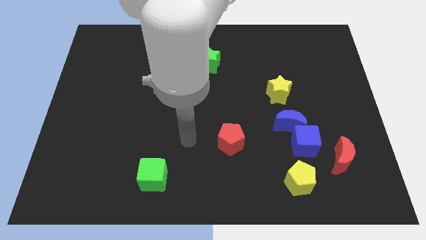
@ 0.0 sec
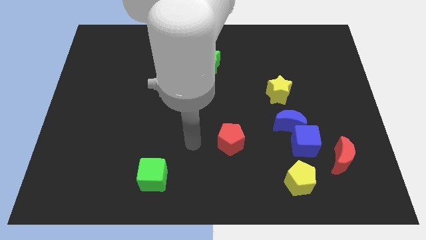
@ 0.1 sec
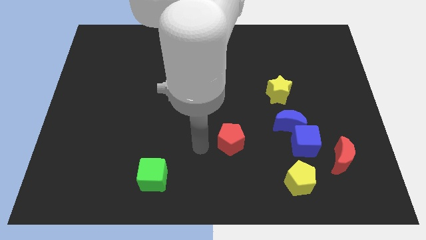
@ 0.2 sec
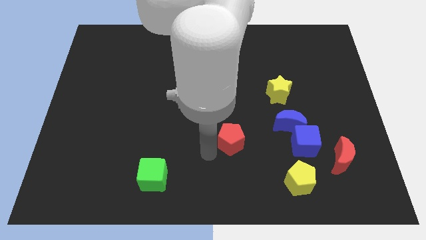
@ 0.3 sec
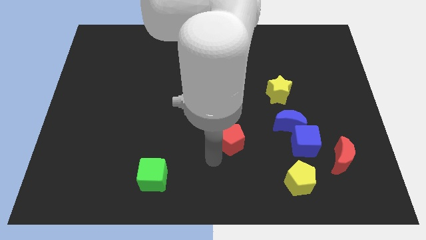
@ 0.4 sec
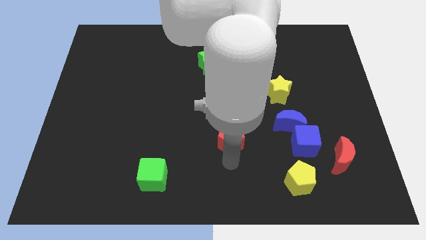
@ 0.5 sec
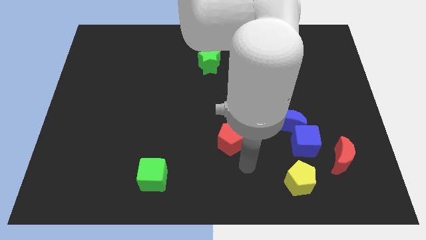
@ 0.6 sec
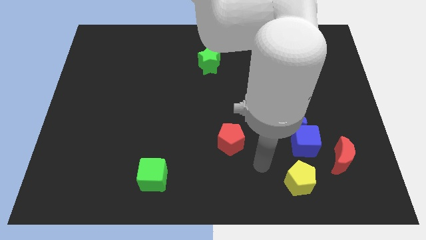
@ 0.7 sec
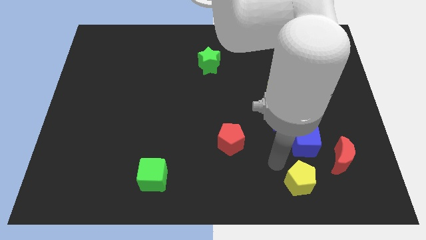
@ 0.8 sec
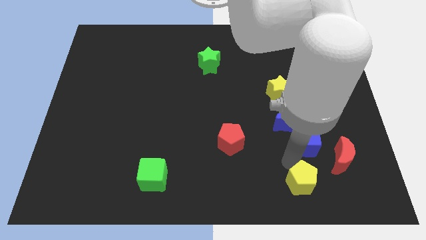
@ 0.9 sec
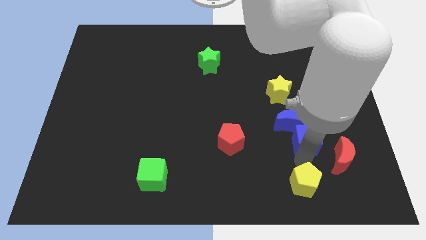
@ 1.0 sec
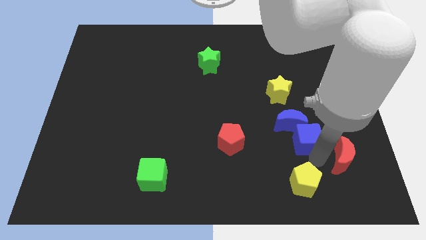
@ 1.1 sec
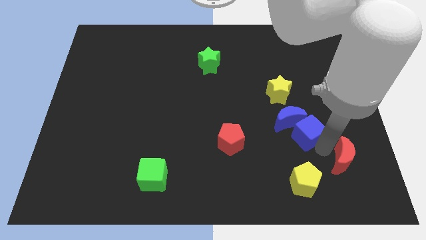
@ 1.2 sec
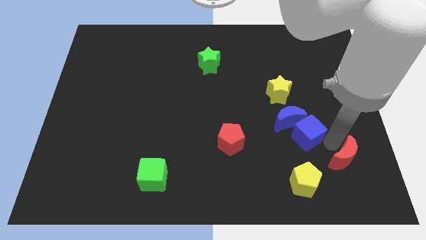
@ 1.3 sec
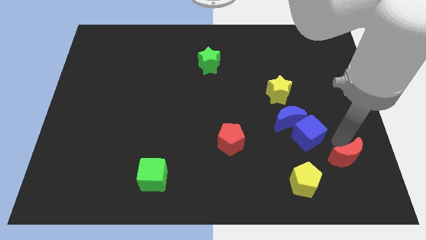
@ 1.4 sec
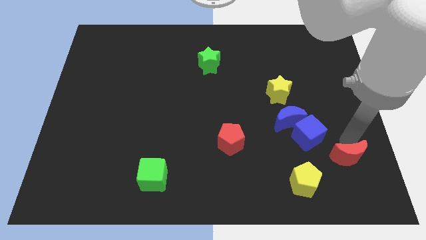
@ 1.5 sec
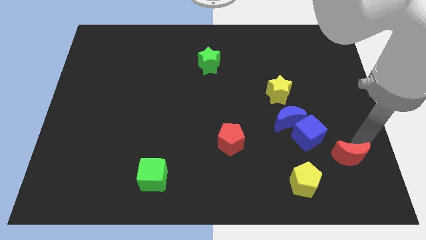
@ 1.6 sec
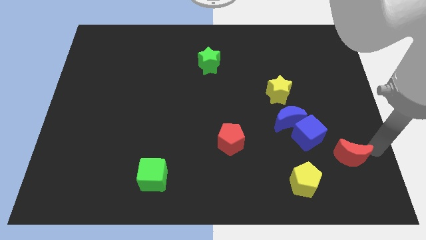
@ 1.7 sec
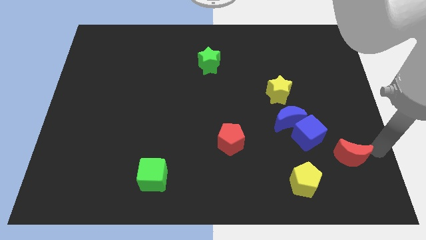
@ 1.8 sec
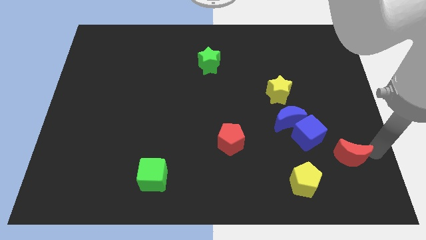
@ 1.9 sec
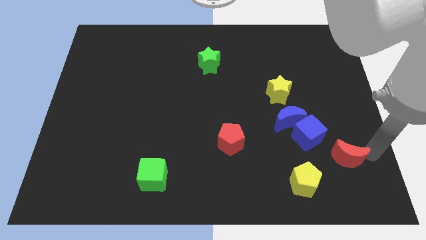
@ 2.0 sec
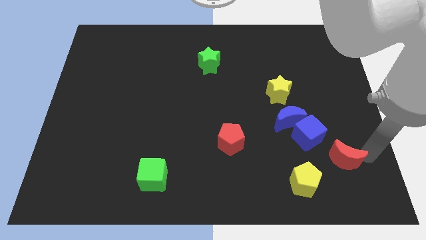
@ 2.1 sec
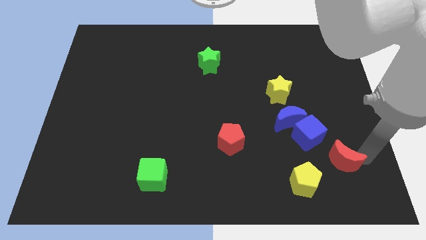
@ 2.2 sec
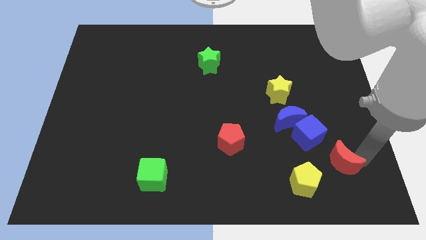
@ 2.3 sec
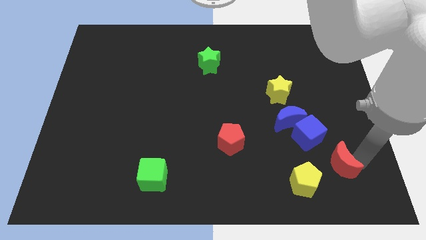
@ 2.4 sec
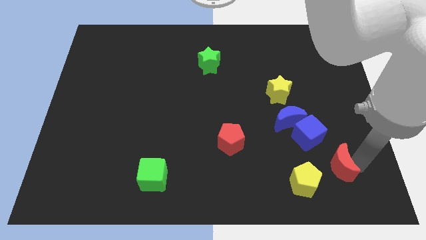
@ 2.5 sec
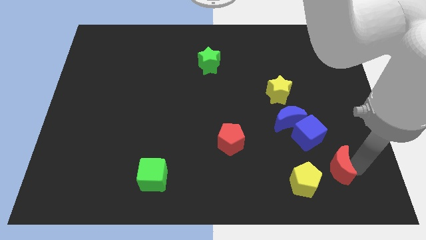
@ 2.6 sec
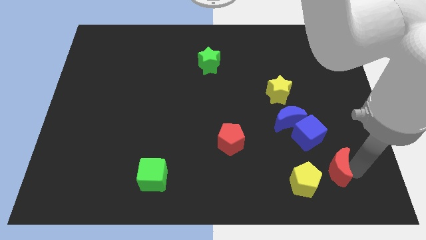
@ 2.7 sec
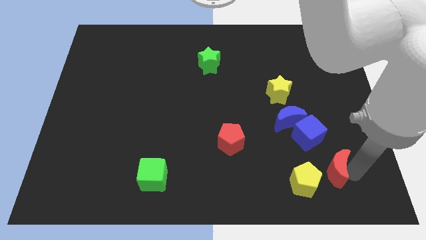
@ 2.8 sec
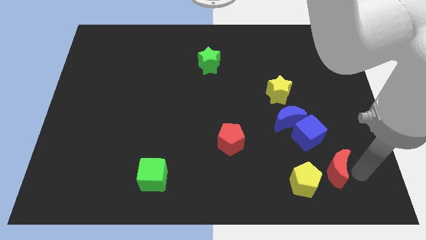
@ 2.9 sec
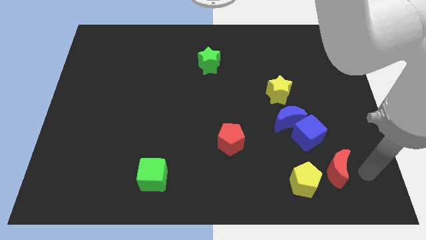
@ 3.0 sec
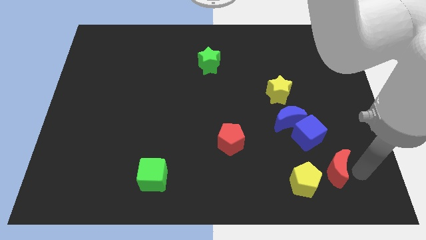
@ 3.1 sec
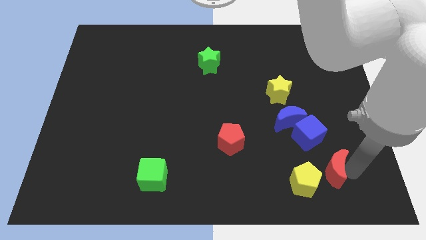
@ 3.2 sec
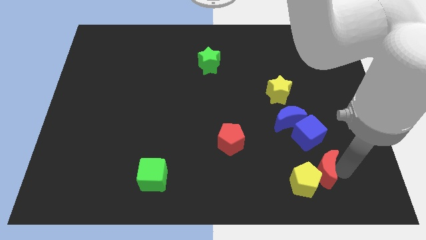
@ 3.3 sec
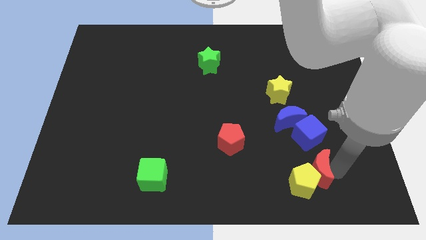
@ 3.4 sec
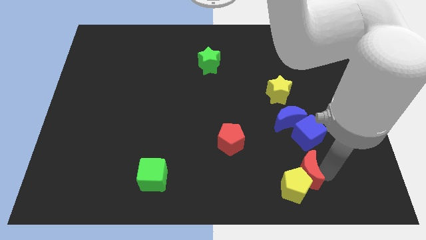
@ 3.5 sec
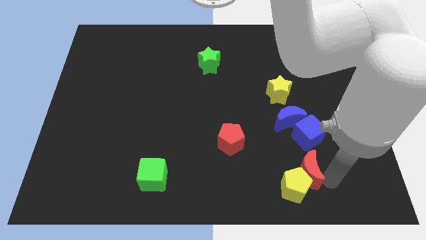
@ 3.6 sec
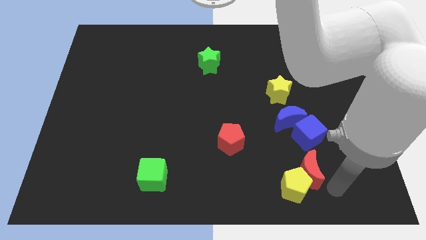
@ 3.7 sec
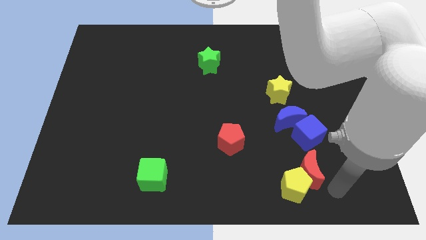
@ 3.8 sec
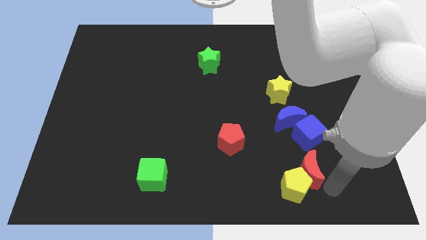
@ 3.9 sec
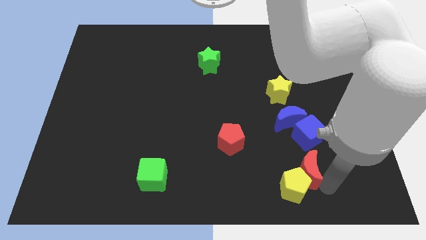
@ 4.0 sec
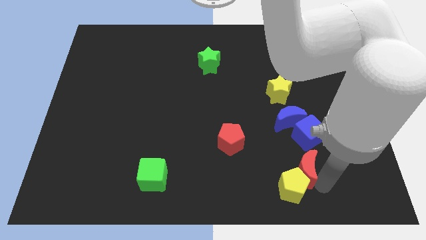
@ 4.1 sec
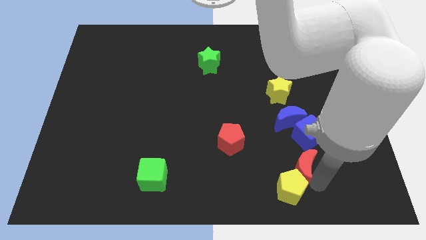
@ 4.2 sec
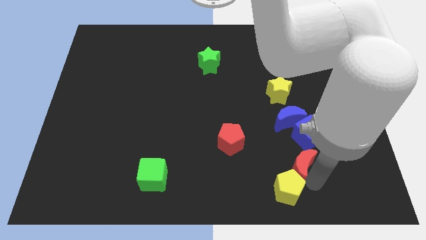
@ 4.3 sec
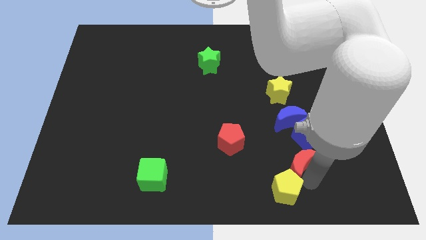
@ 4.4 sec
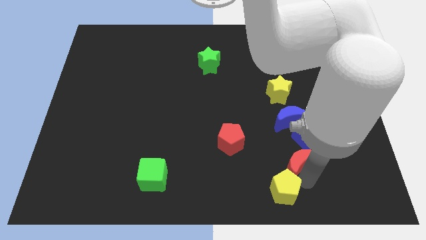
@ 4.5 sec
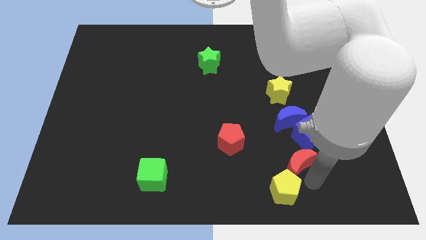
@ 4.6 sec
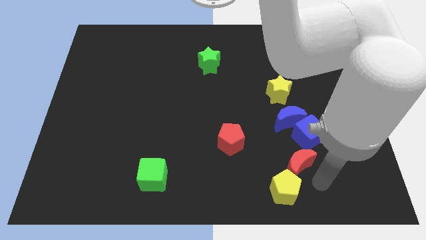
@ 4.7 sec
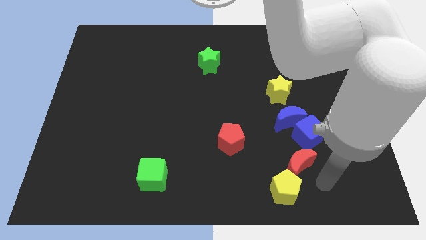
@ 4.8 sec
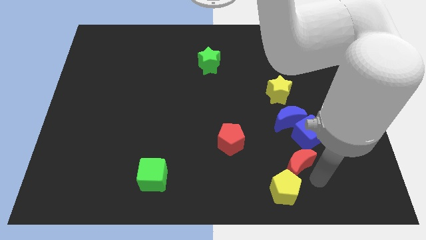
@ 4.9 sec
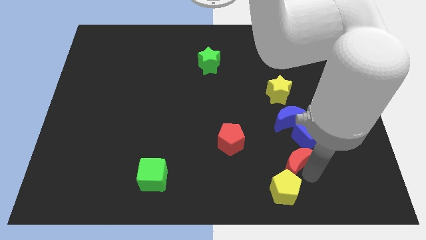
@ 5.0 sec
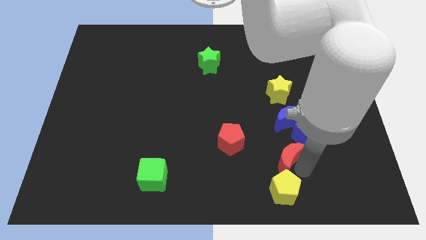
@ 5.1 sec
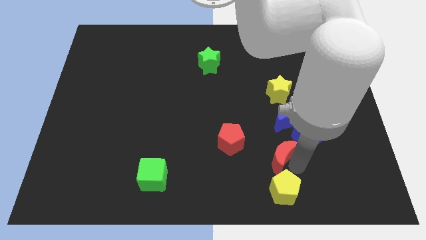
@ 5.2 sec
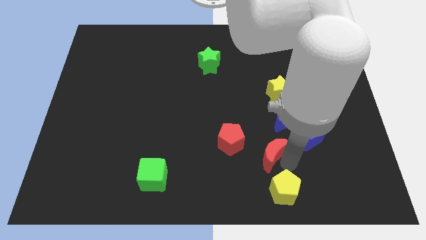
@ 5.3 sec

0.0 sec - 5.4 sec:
put the red moon to the left of the blue cube

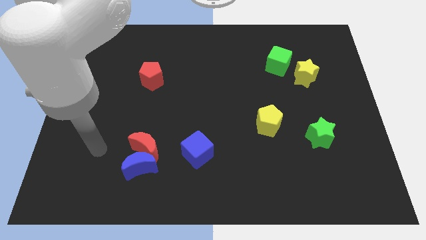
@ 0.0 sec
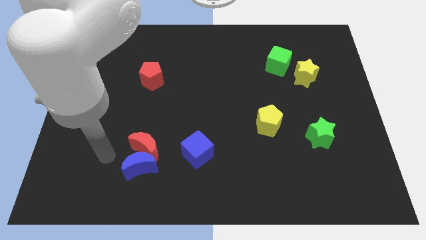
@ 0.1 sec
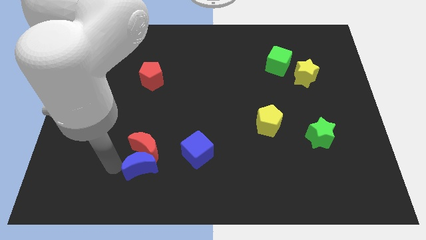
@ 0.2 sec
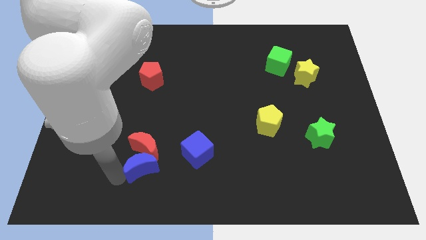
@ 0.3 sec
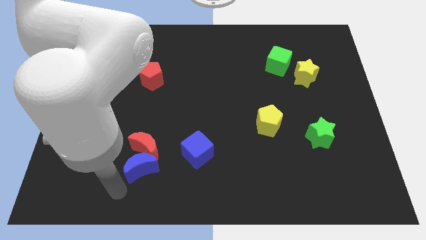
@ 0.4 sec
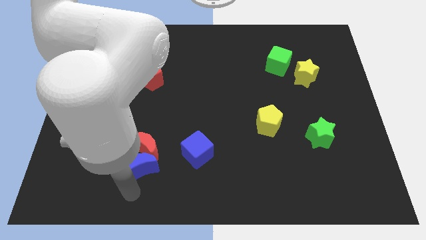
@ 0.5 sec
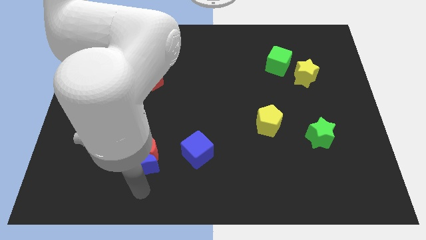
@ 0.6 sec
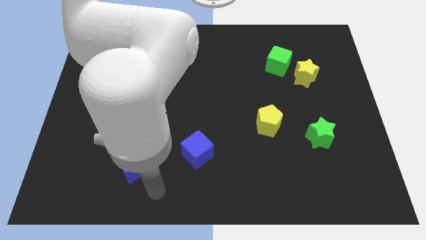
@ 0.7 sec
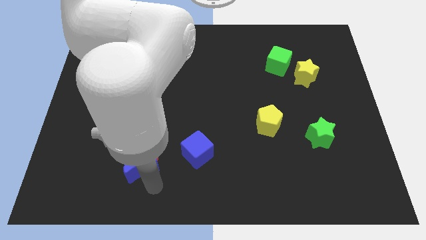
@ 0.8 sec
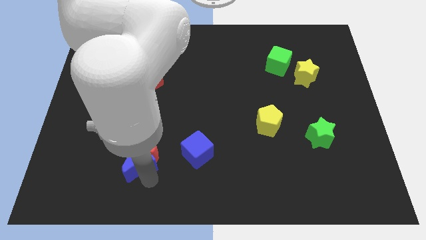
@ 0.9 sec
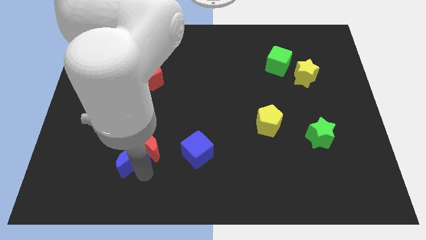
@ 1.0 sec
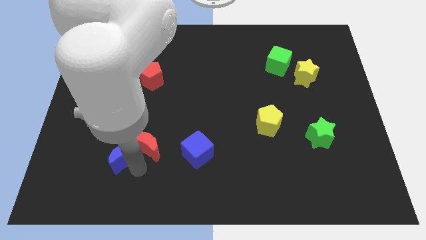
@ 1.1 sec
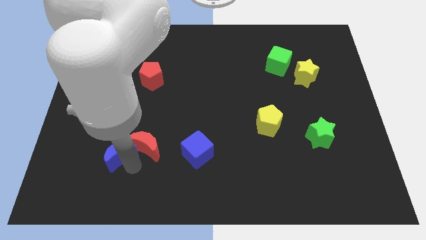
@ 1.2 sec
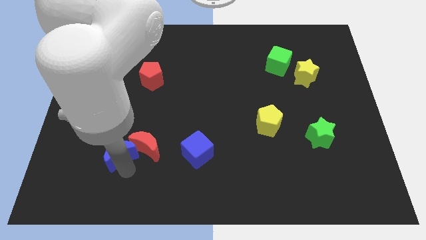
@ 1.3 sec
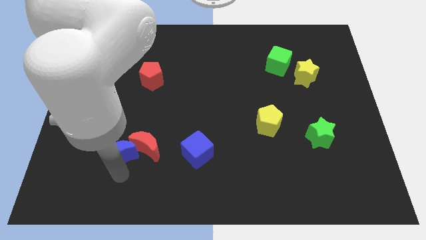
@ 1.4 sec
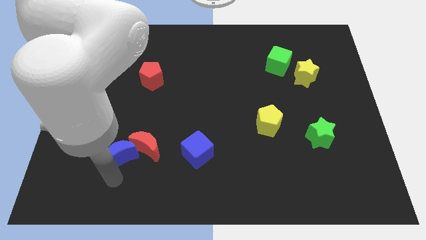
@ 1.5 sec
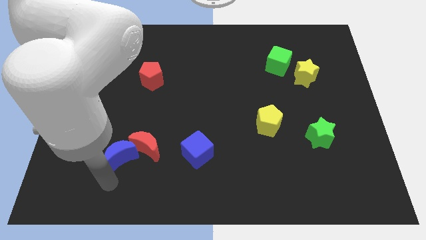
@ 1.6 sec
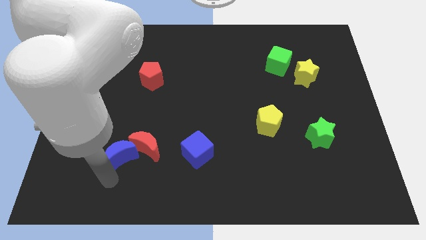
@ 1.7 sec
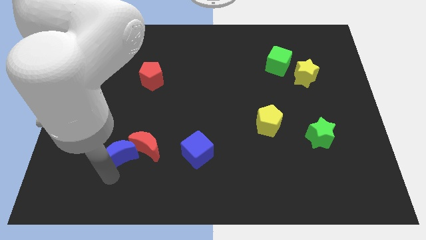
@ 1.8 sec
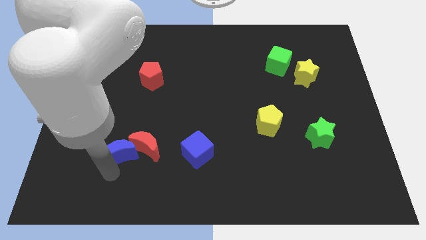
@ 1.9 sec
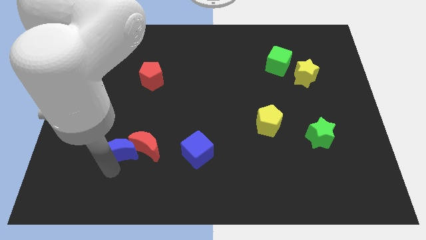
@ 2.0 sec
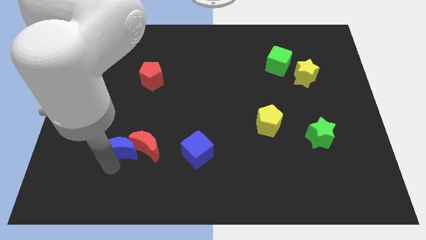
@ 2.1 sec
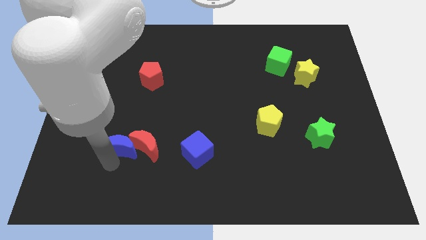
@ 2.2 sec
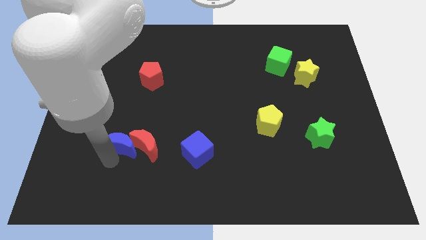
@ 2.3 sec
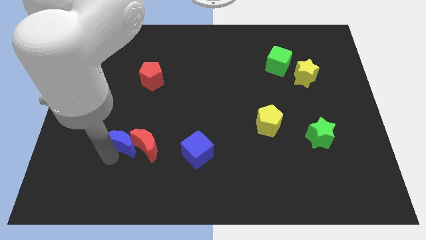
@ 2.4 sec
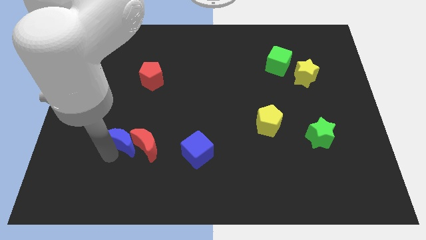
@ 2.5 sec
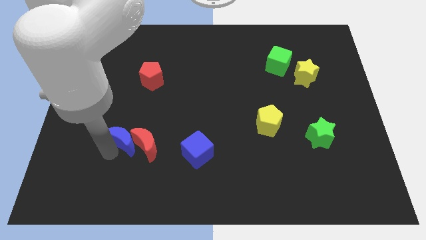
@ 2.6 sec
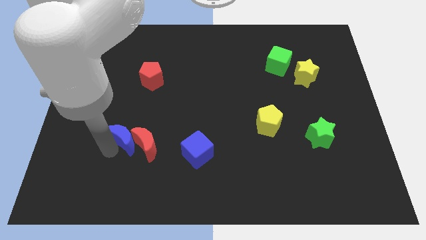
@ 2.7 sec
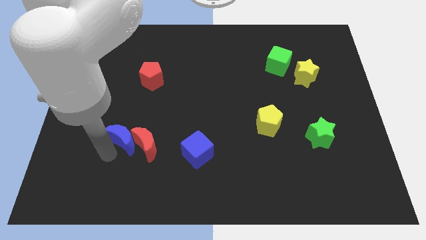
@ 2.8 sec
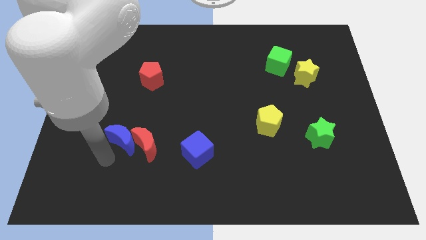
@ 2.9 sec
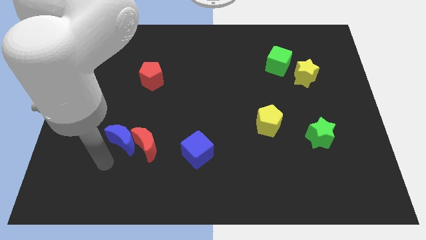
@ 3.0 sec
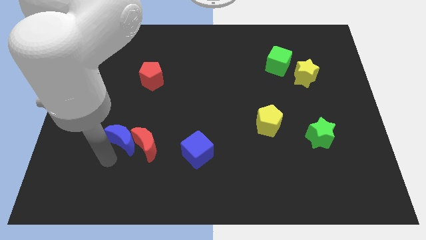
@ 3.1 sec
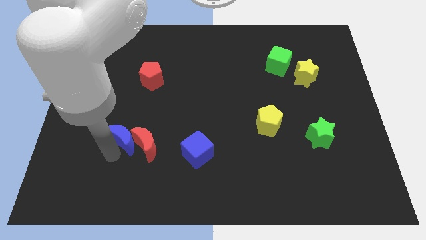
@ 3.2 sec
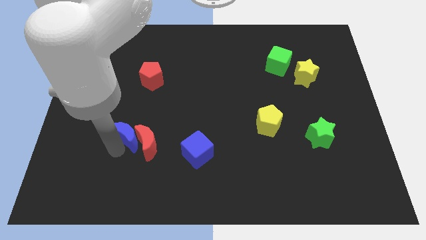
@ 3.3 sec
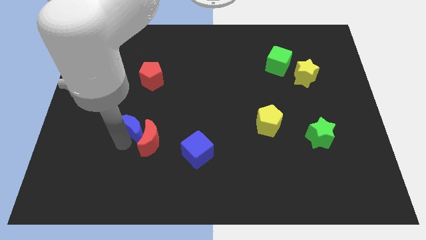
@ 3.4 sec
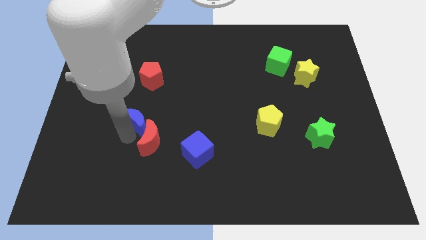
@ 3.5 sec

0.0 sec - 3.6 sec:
slide the blue moon to the bottom side of the red pentagon
